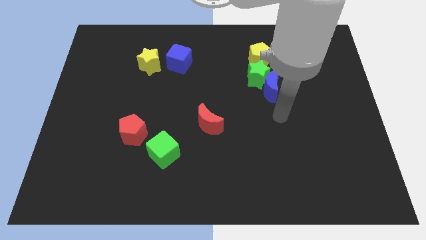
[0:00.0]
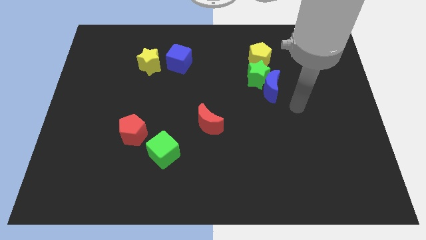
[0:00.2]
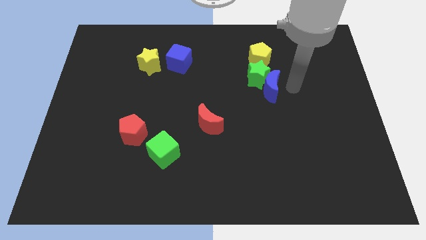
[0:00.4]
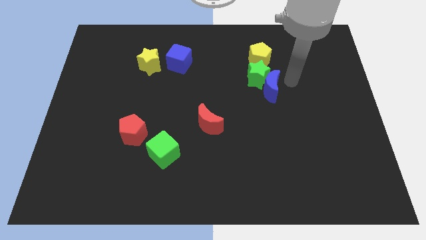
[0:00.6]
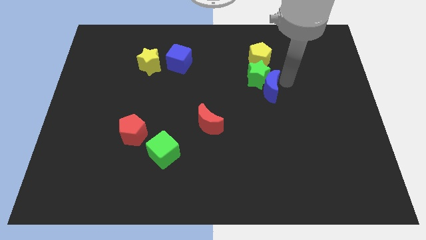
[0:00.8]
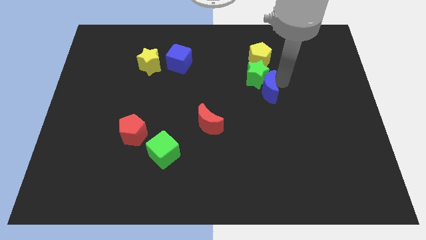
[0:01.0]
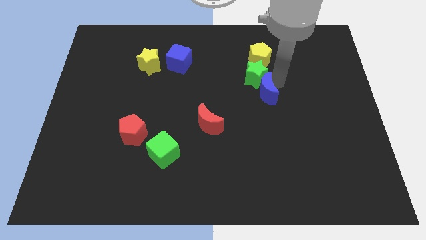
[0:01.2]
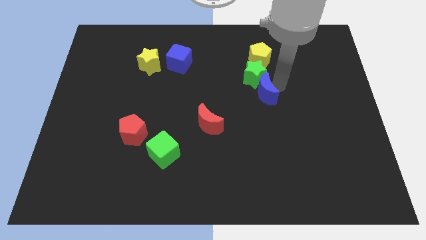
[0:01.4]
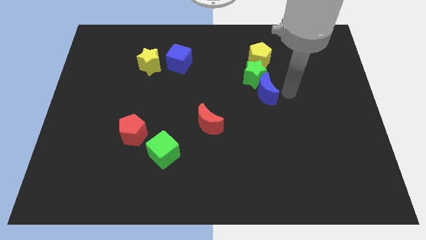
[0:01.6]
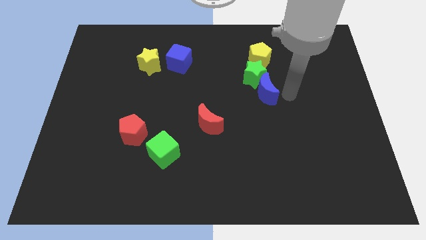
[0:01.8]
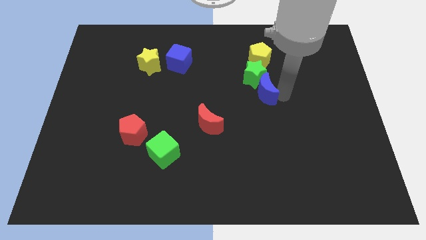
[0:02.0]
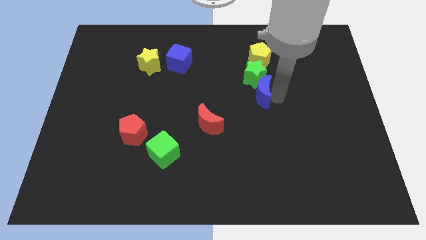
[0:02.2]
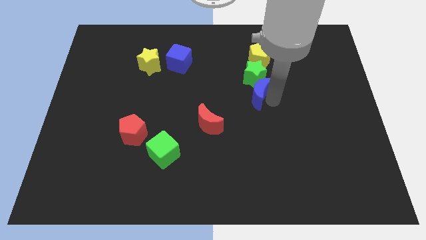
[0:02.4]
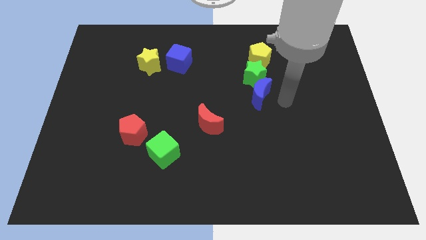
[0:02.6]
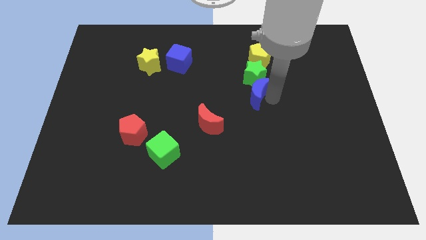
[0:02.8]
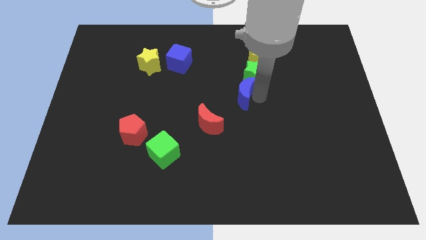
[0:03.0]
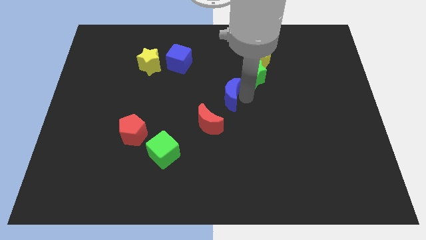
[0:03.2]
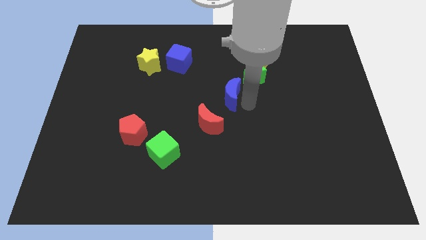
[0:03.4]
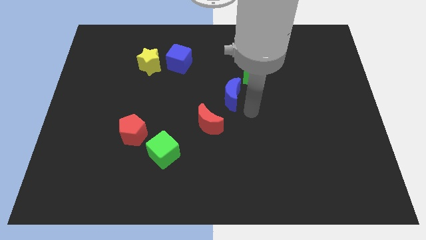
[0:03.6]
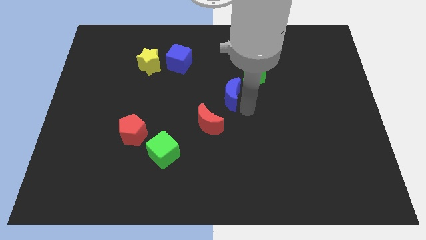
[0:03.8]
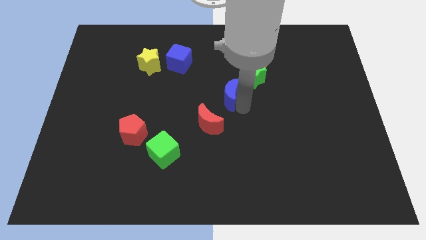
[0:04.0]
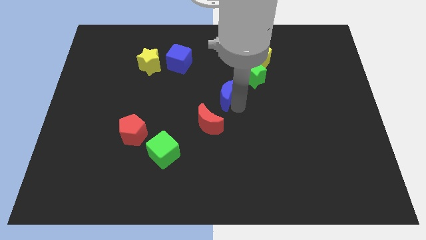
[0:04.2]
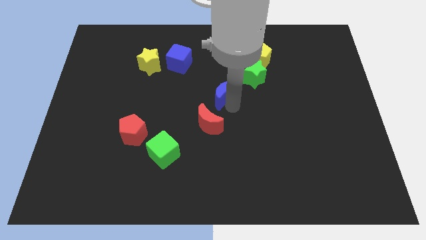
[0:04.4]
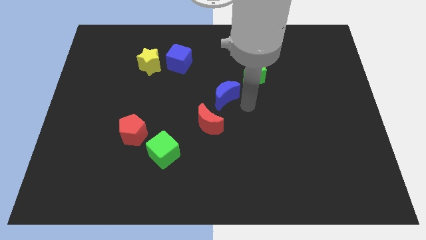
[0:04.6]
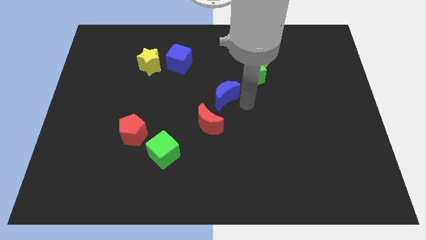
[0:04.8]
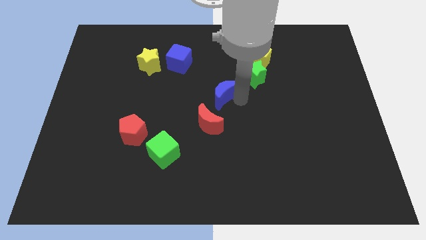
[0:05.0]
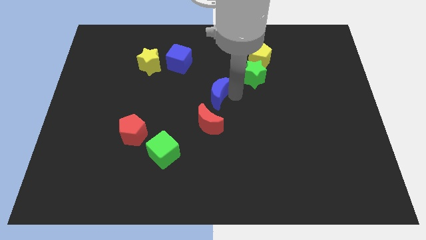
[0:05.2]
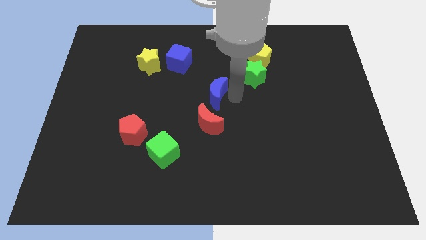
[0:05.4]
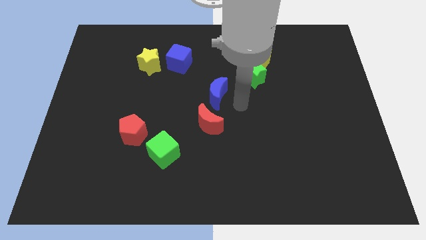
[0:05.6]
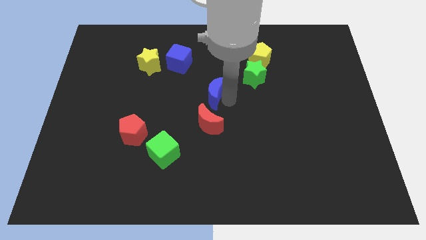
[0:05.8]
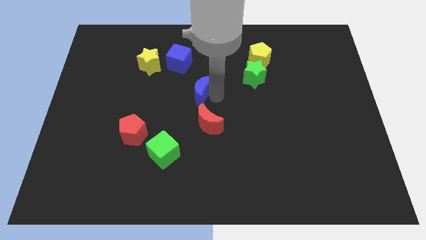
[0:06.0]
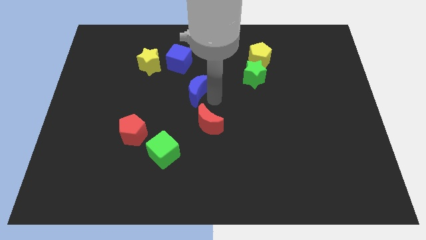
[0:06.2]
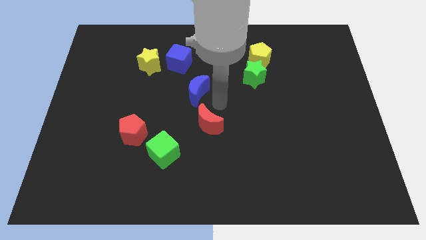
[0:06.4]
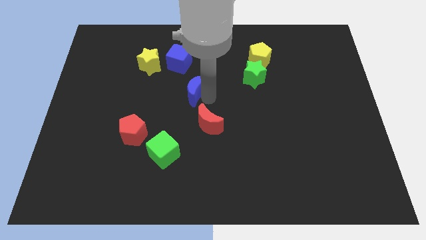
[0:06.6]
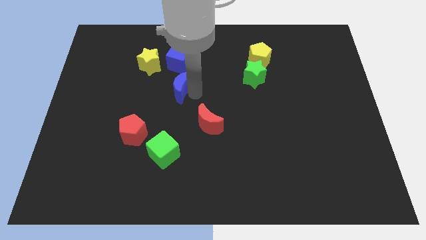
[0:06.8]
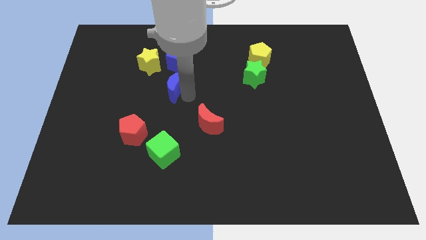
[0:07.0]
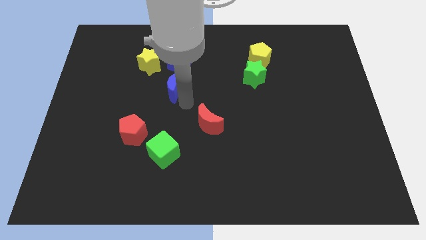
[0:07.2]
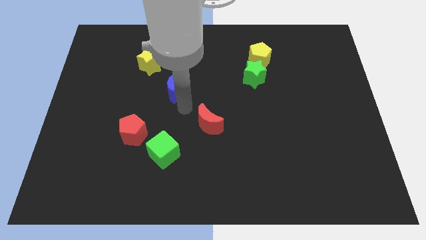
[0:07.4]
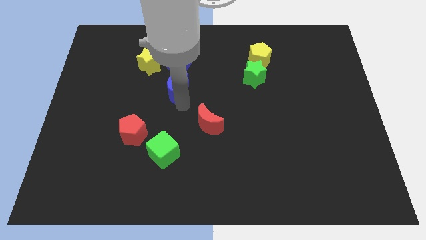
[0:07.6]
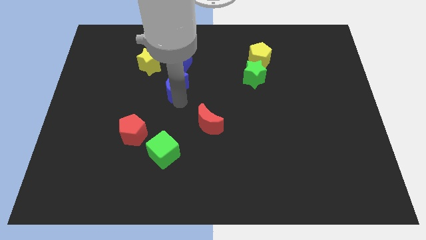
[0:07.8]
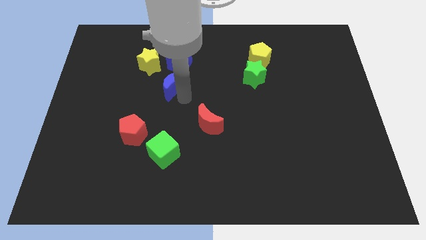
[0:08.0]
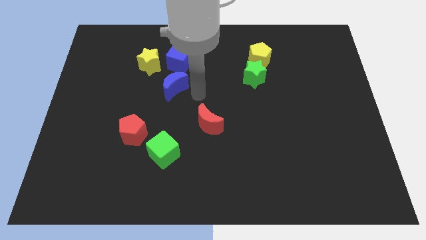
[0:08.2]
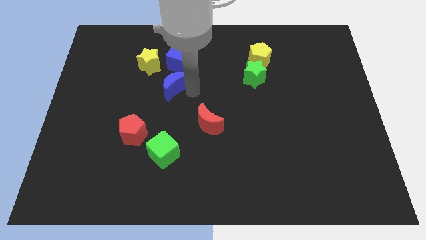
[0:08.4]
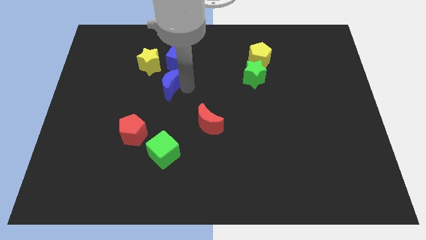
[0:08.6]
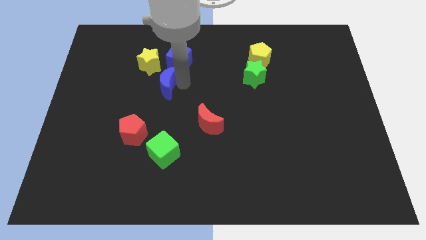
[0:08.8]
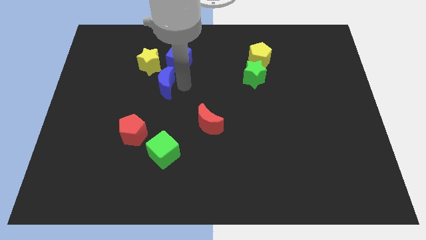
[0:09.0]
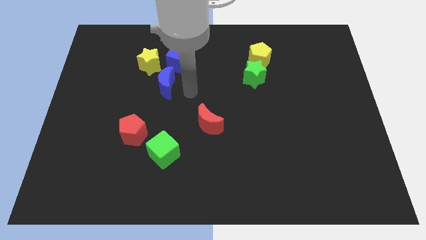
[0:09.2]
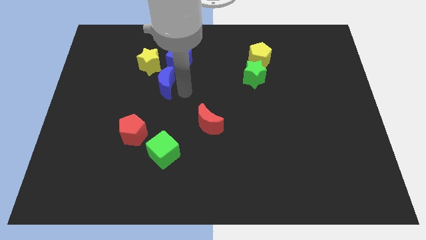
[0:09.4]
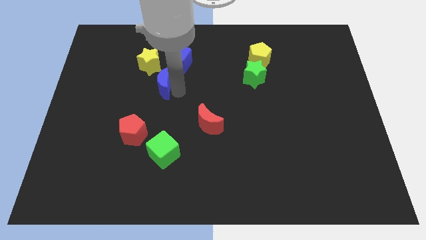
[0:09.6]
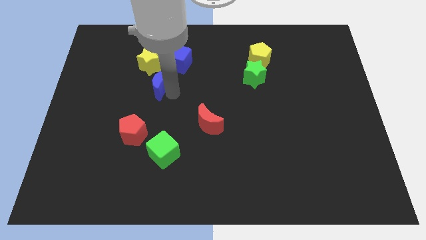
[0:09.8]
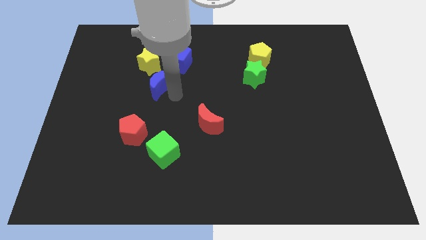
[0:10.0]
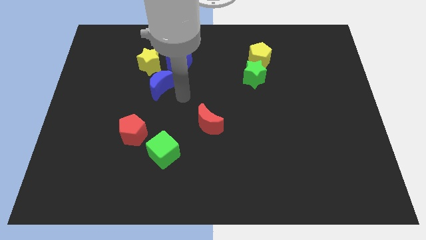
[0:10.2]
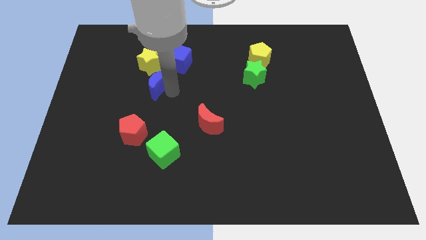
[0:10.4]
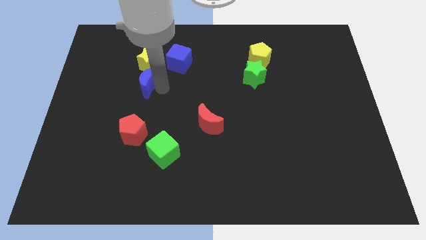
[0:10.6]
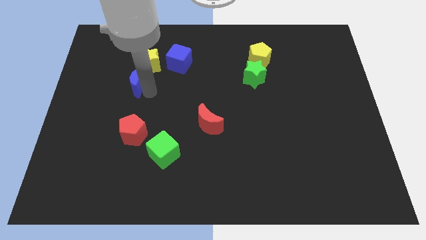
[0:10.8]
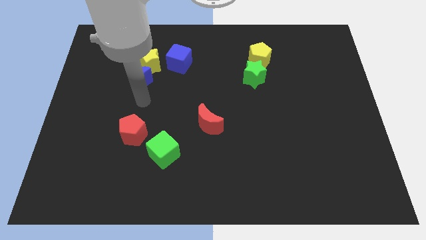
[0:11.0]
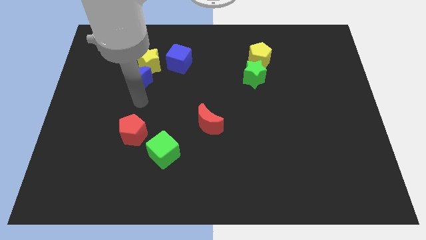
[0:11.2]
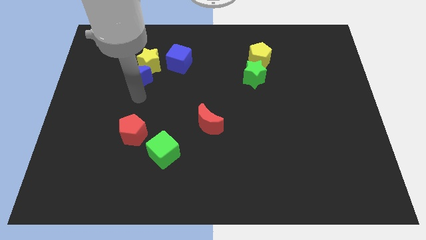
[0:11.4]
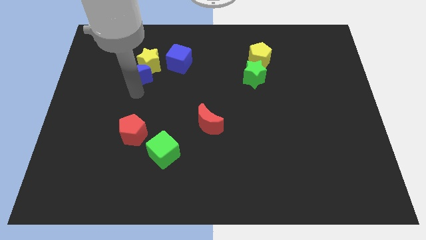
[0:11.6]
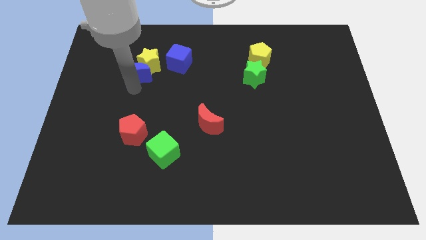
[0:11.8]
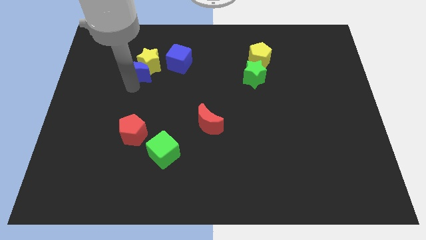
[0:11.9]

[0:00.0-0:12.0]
slide the blue moon to the left of the blue cube

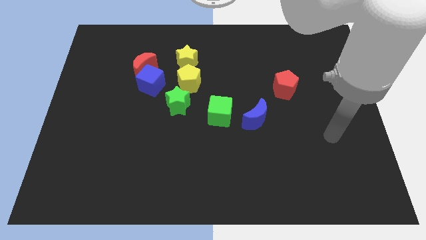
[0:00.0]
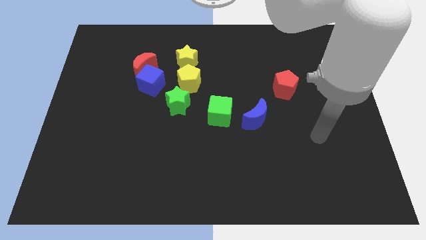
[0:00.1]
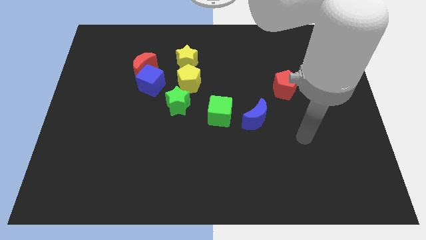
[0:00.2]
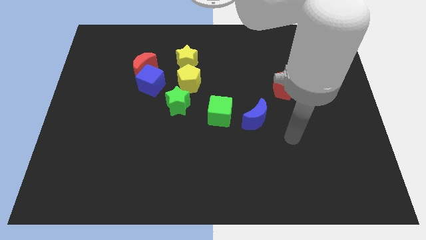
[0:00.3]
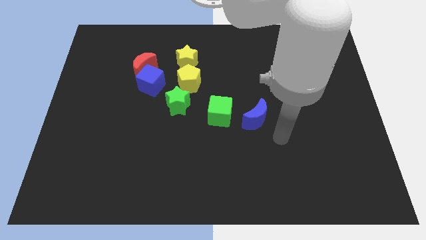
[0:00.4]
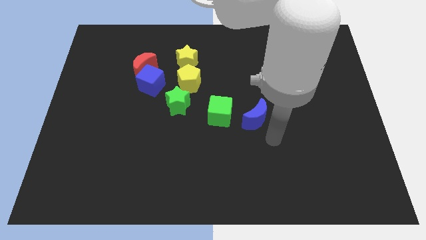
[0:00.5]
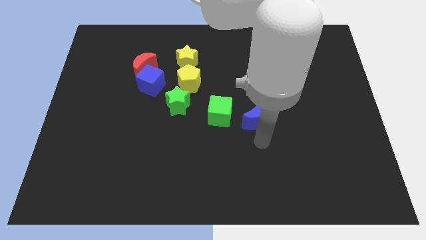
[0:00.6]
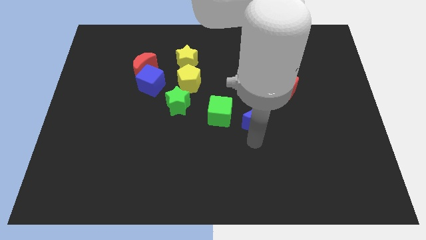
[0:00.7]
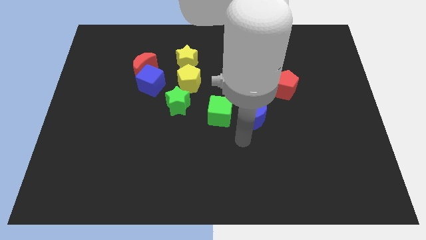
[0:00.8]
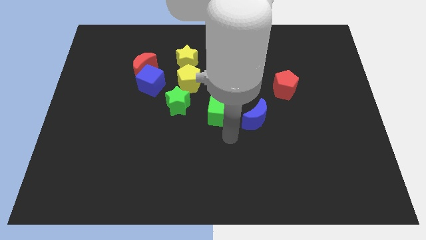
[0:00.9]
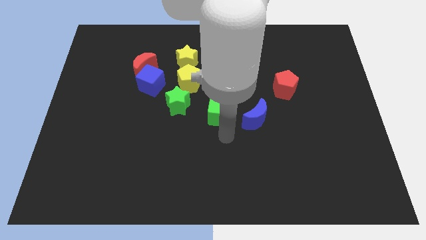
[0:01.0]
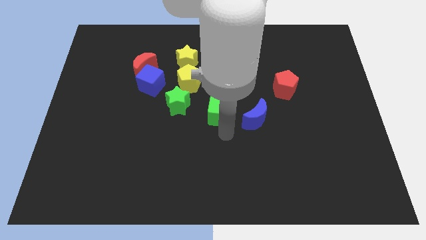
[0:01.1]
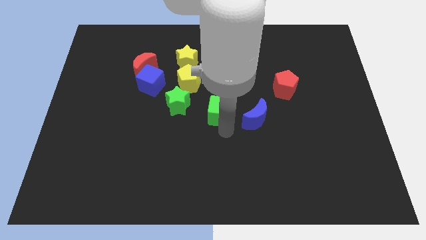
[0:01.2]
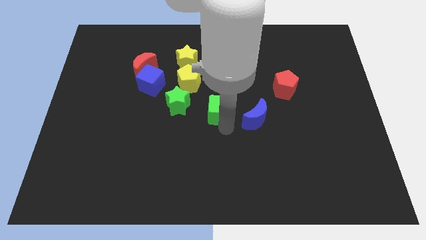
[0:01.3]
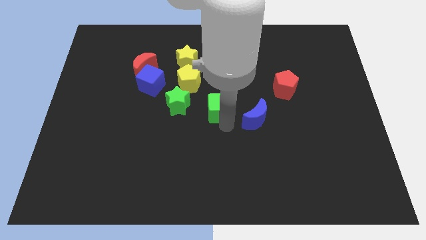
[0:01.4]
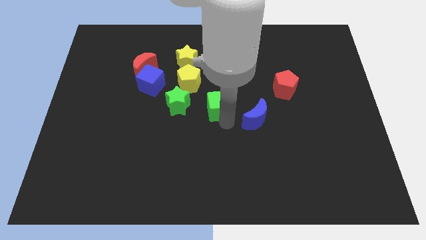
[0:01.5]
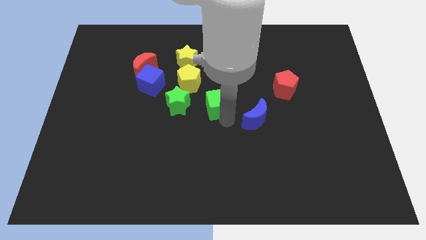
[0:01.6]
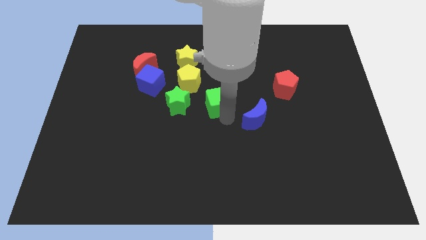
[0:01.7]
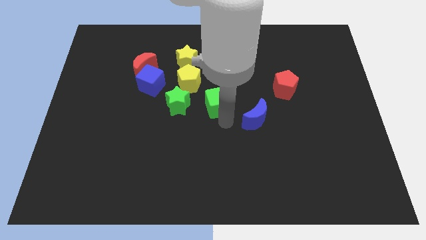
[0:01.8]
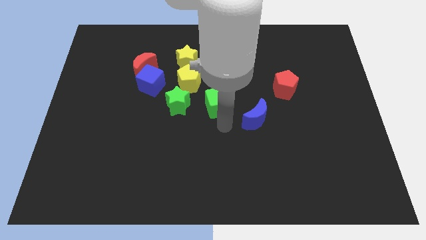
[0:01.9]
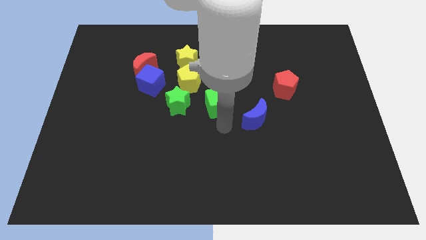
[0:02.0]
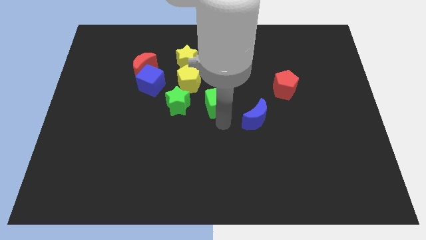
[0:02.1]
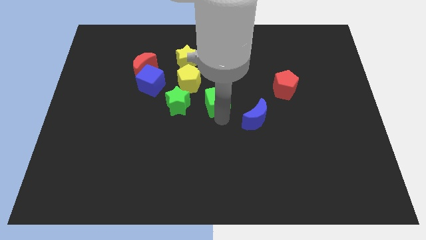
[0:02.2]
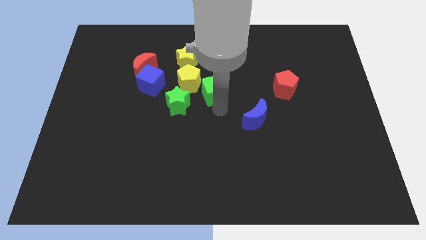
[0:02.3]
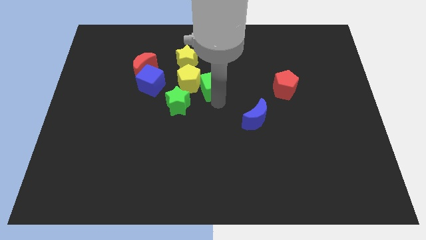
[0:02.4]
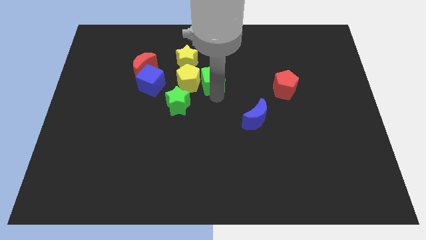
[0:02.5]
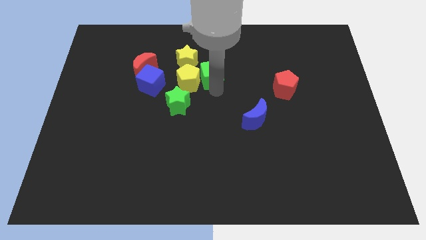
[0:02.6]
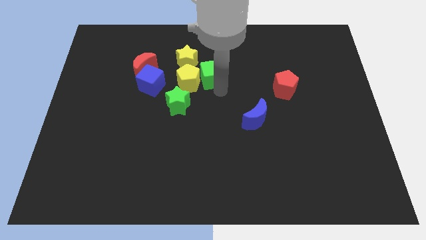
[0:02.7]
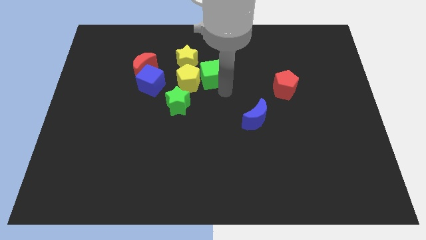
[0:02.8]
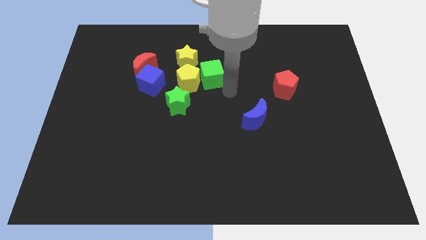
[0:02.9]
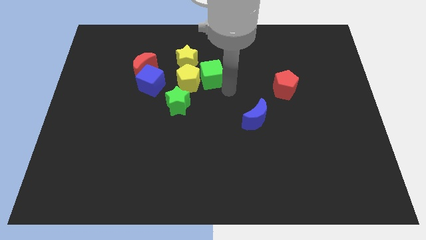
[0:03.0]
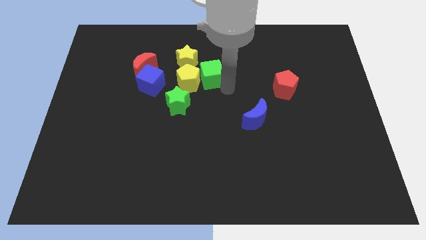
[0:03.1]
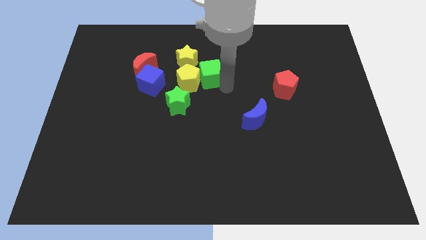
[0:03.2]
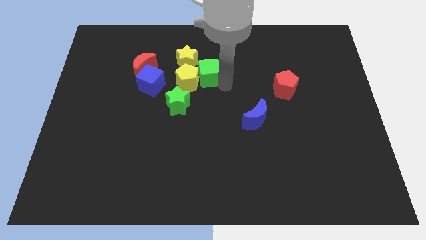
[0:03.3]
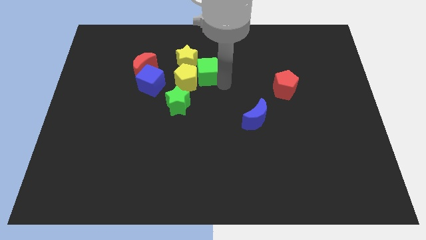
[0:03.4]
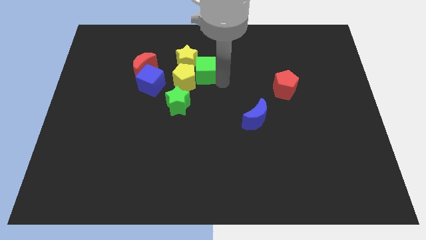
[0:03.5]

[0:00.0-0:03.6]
move the green cube right of the red moon
